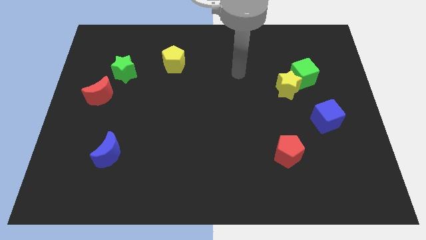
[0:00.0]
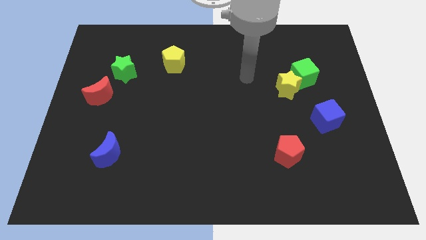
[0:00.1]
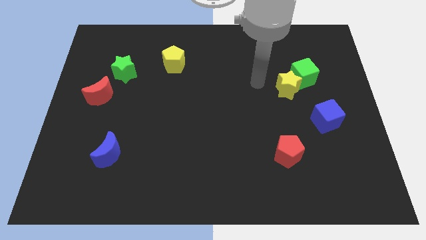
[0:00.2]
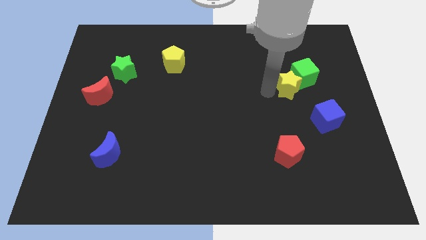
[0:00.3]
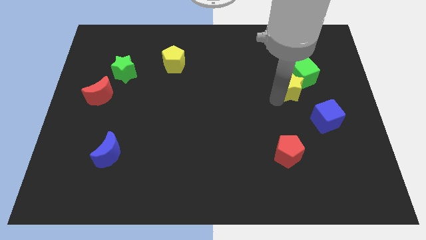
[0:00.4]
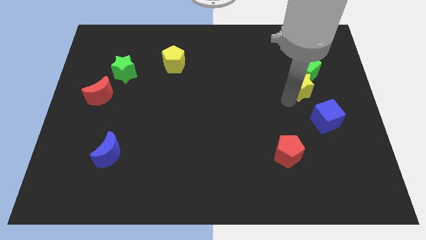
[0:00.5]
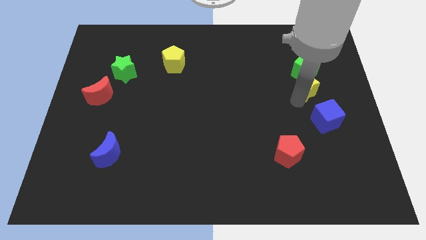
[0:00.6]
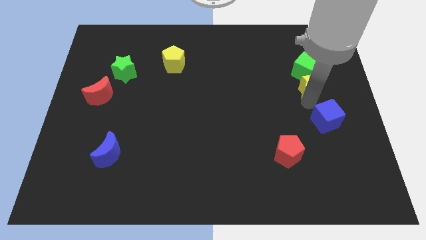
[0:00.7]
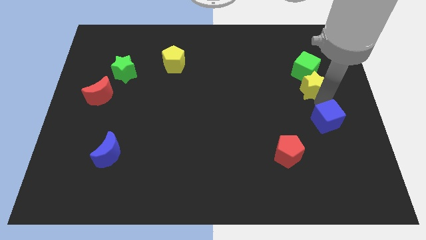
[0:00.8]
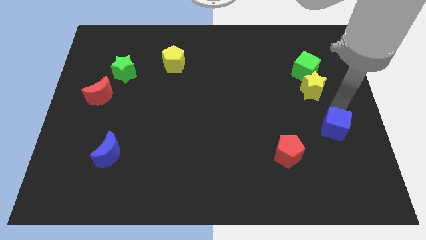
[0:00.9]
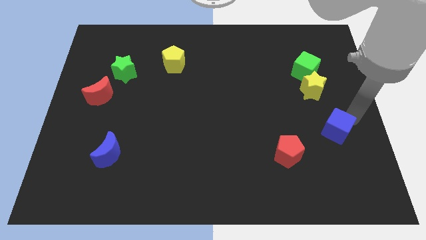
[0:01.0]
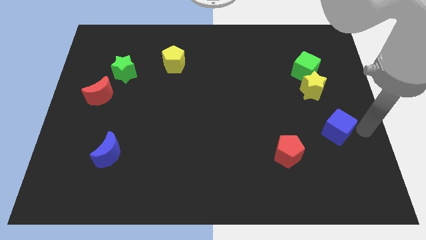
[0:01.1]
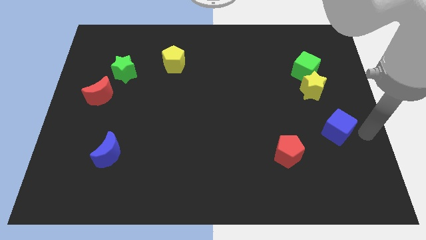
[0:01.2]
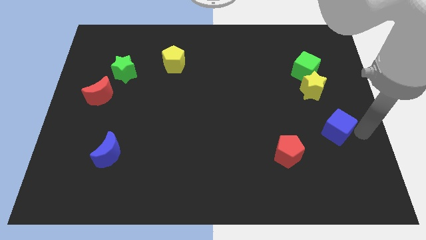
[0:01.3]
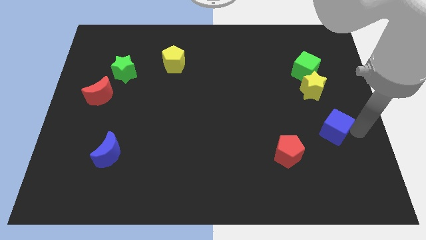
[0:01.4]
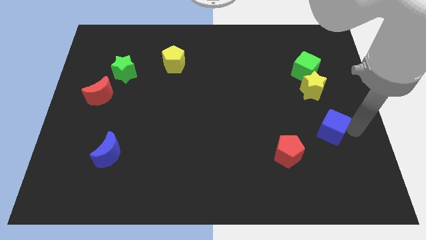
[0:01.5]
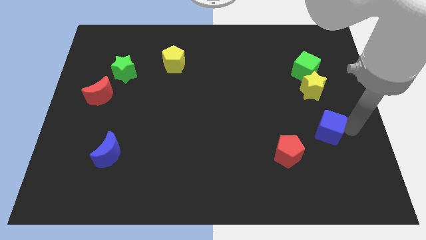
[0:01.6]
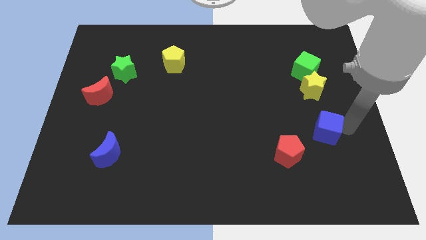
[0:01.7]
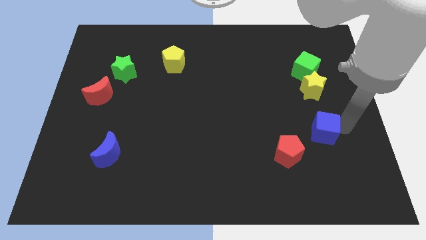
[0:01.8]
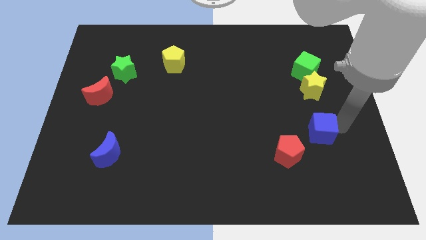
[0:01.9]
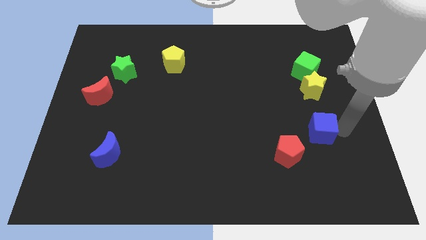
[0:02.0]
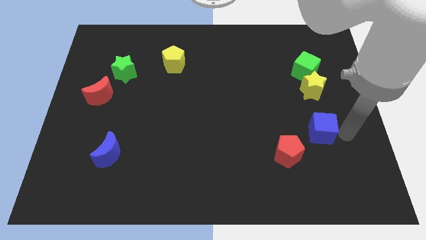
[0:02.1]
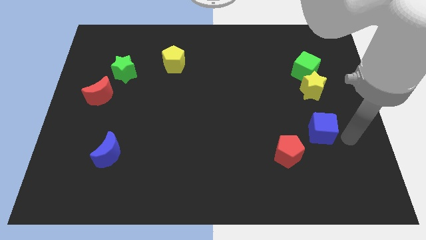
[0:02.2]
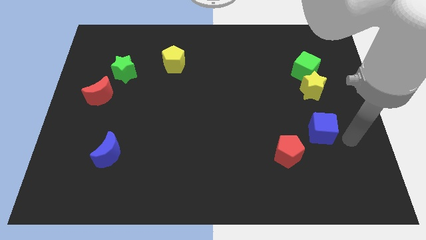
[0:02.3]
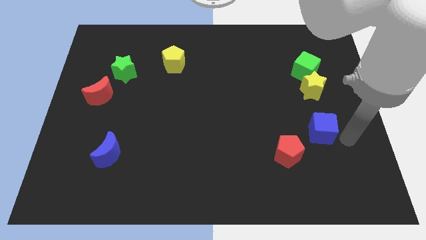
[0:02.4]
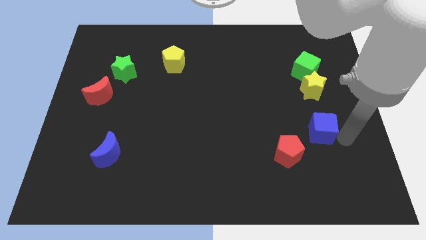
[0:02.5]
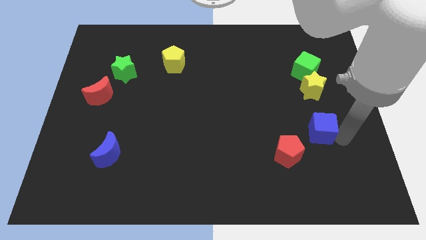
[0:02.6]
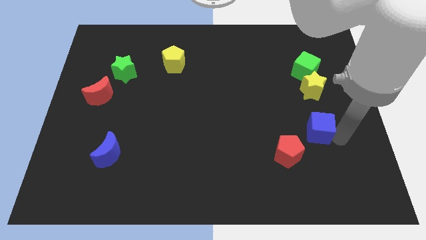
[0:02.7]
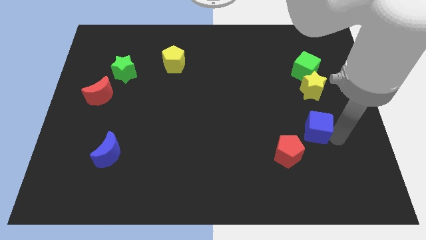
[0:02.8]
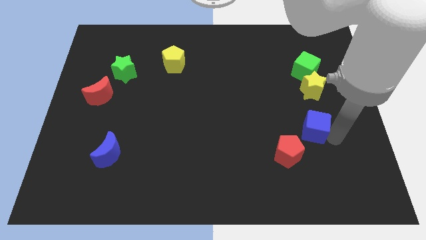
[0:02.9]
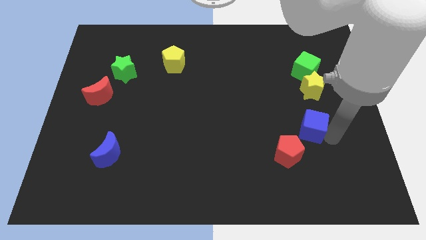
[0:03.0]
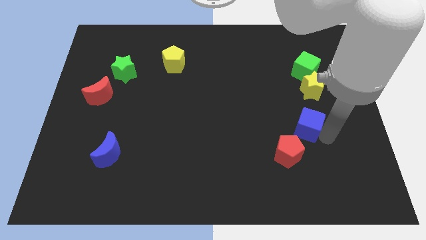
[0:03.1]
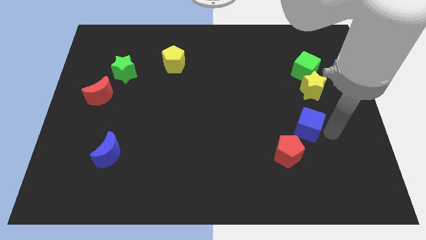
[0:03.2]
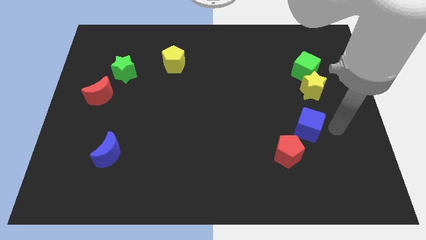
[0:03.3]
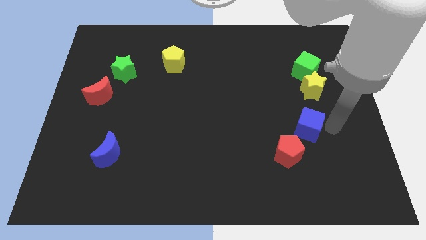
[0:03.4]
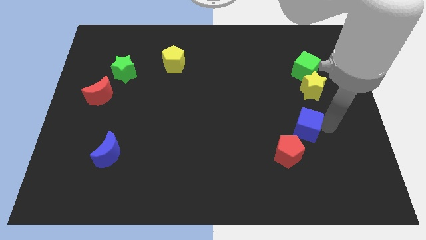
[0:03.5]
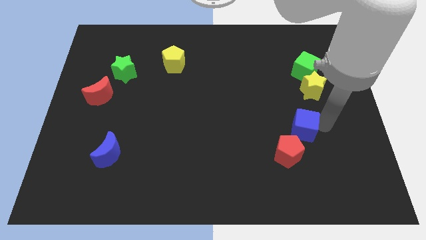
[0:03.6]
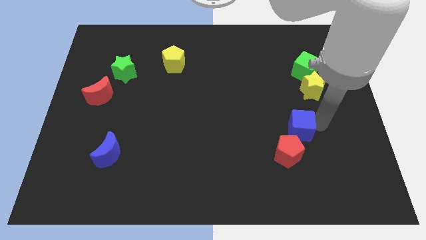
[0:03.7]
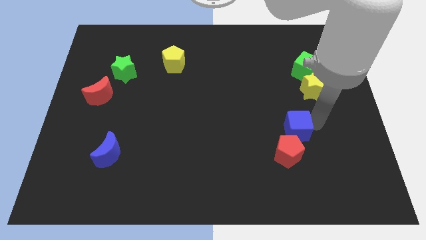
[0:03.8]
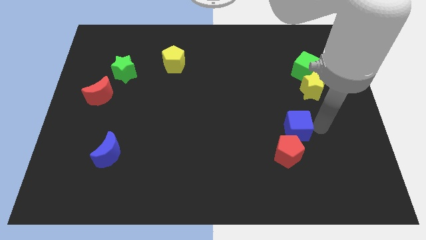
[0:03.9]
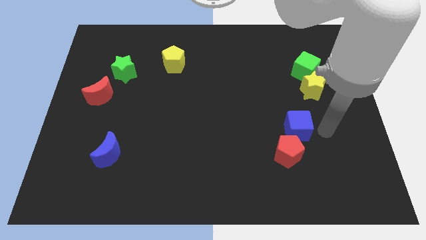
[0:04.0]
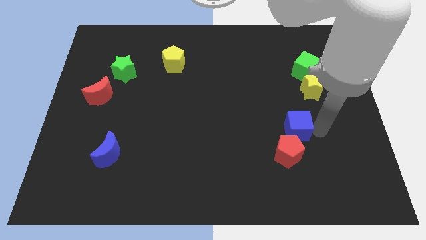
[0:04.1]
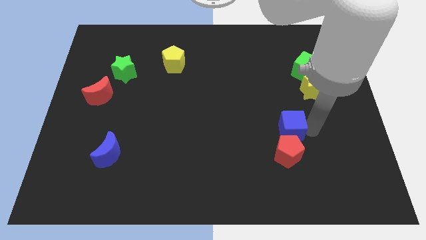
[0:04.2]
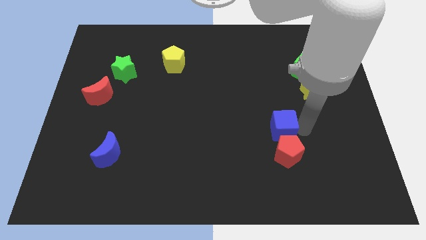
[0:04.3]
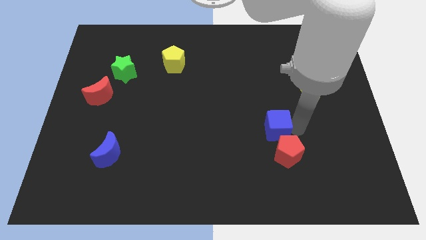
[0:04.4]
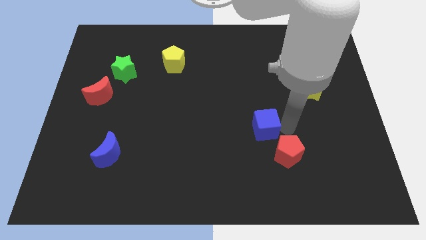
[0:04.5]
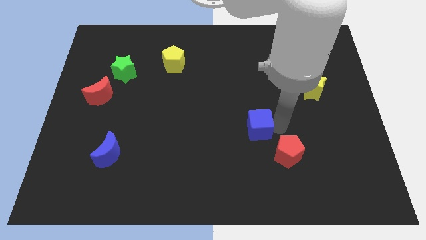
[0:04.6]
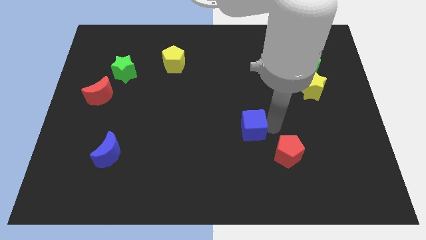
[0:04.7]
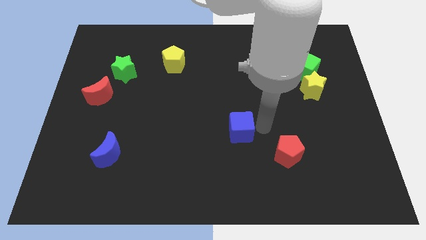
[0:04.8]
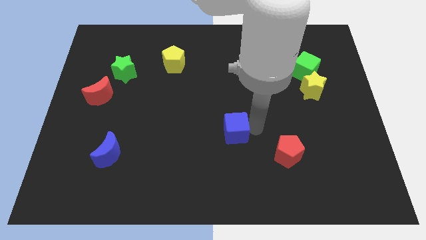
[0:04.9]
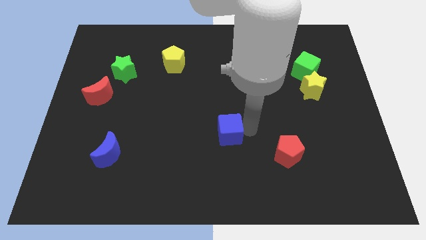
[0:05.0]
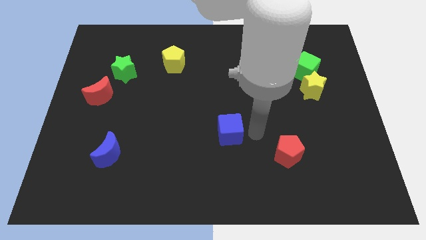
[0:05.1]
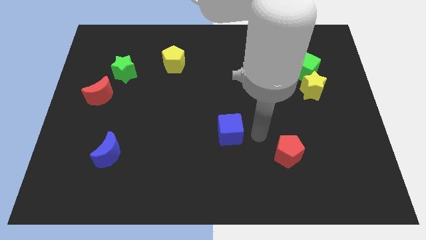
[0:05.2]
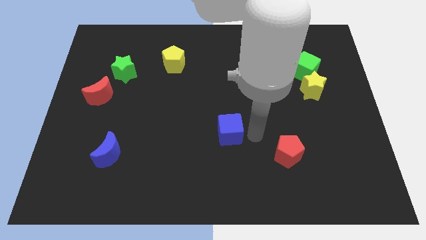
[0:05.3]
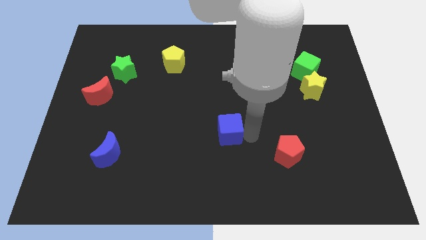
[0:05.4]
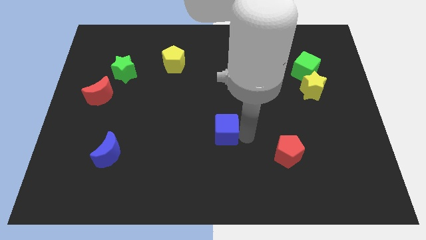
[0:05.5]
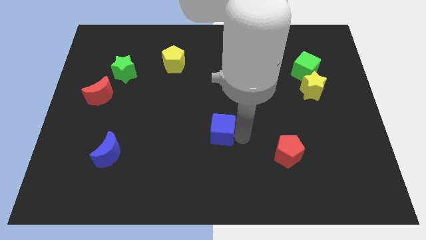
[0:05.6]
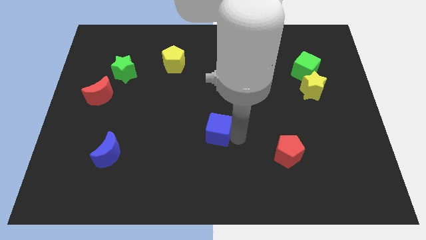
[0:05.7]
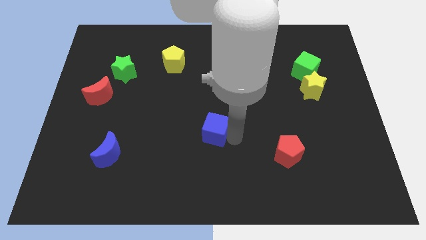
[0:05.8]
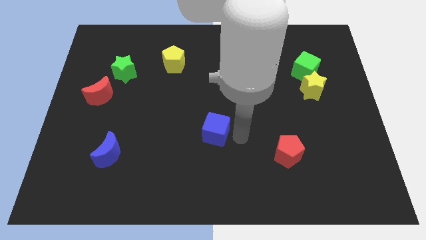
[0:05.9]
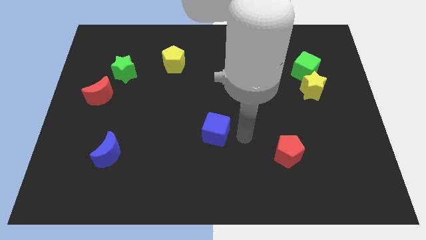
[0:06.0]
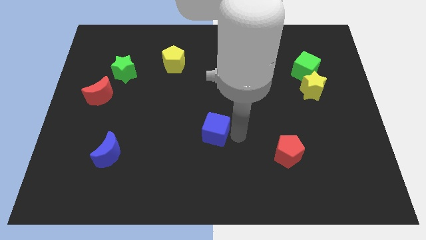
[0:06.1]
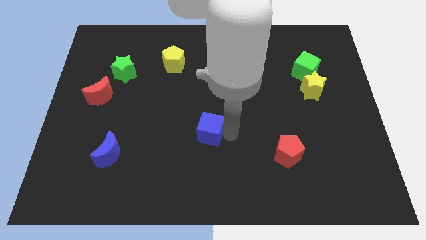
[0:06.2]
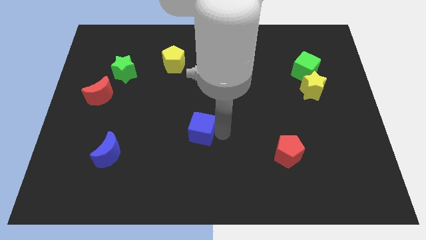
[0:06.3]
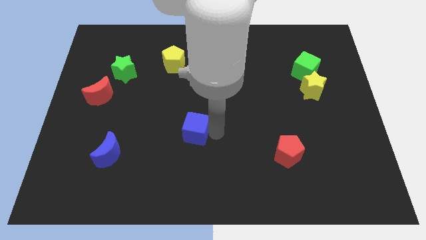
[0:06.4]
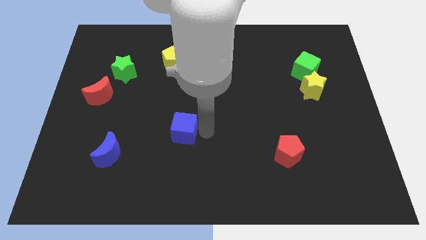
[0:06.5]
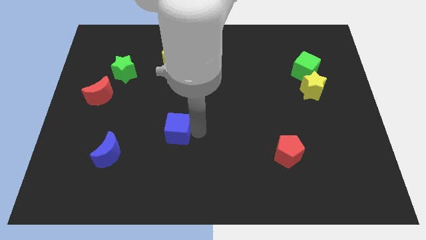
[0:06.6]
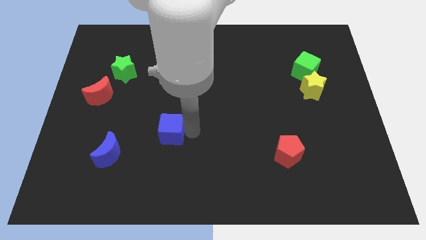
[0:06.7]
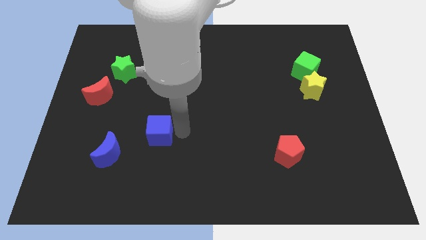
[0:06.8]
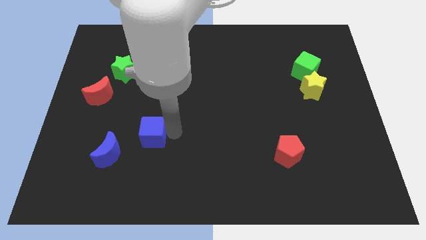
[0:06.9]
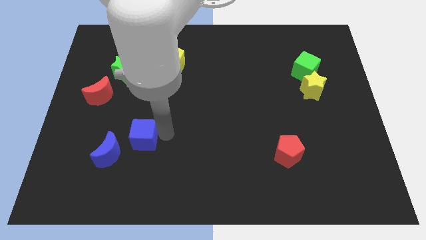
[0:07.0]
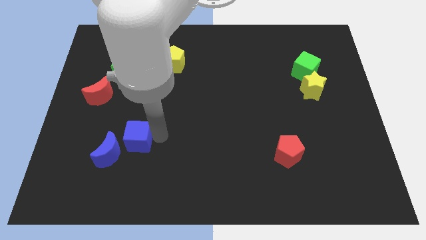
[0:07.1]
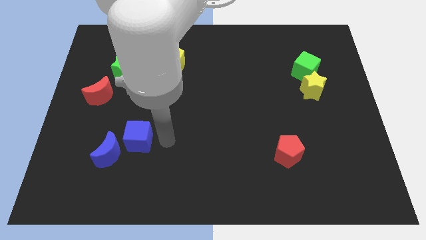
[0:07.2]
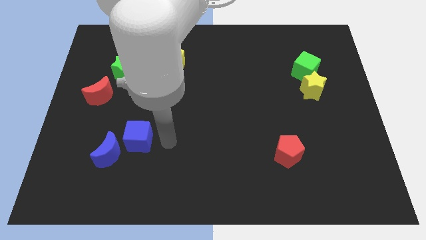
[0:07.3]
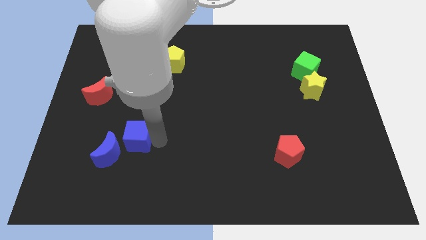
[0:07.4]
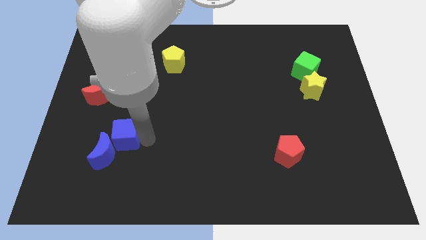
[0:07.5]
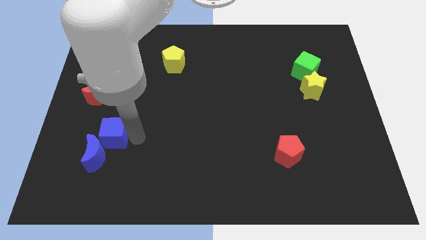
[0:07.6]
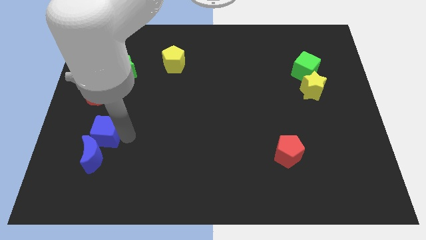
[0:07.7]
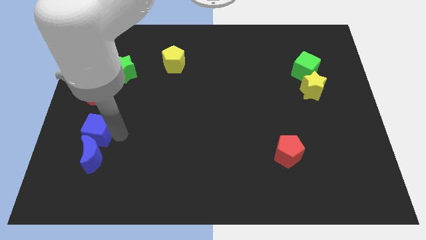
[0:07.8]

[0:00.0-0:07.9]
move the blue cube to the top left side of the blue moon
